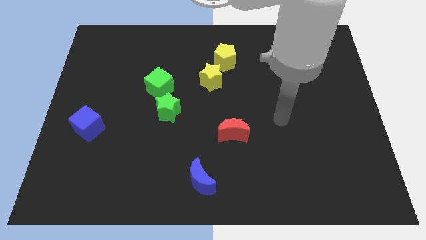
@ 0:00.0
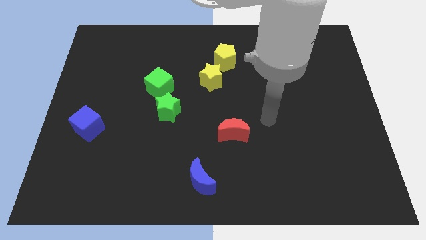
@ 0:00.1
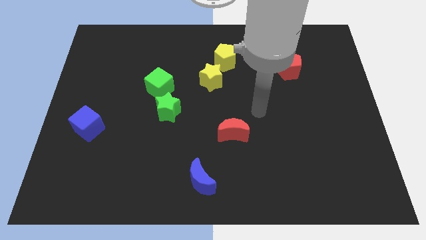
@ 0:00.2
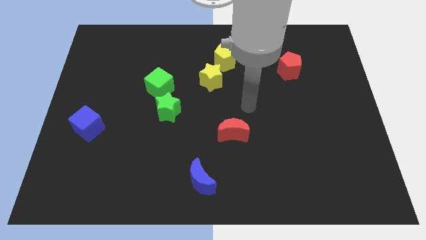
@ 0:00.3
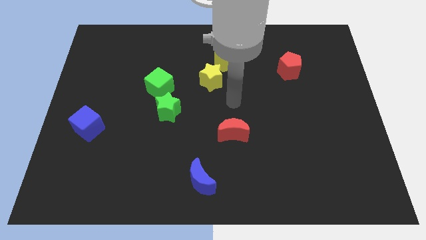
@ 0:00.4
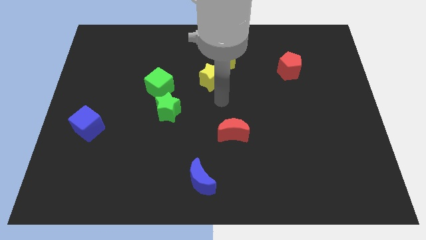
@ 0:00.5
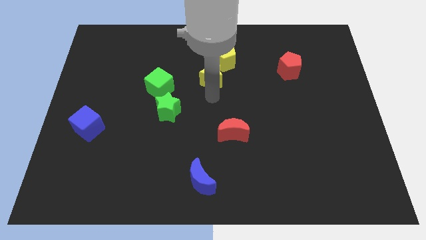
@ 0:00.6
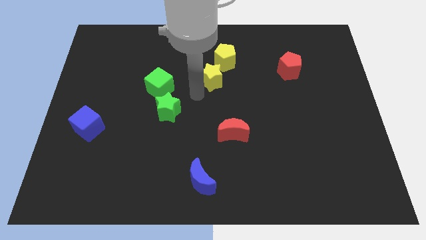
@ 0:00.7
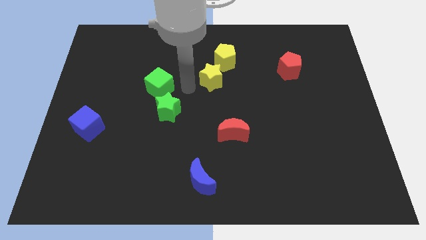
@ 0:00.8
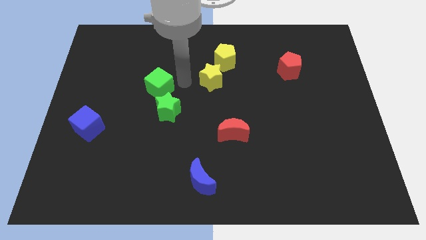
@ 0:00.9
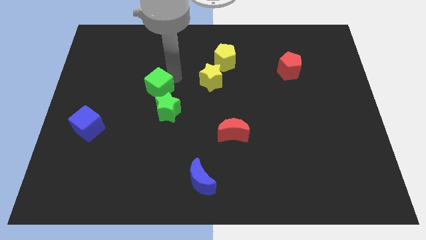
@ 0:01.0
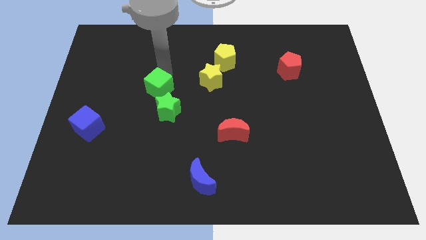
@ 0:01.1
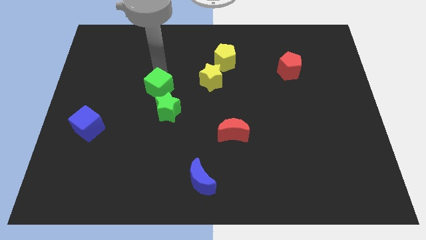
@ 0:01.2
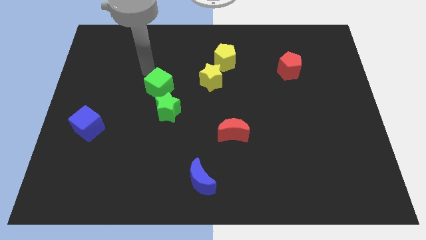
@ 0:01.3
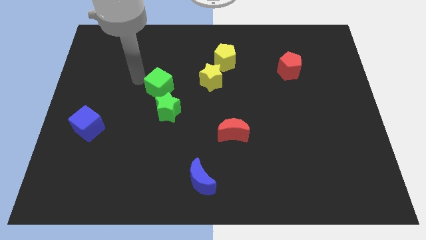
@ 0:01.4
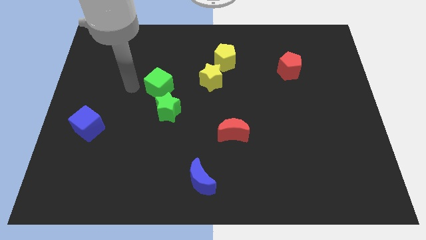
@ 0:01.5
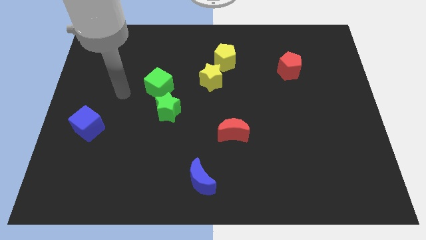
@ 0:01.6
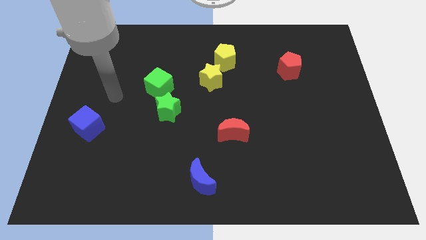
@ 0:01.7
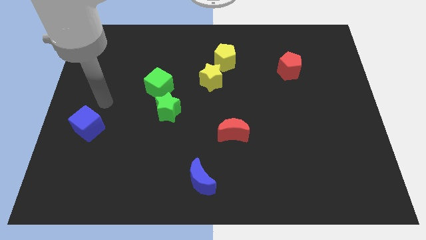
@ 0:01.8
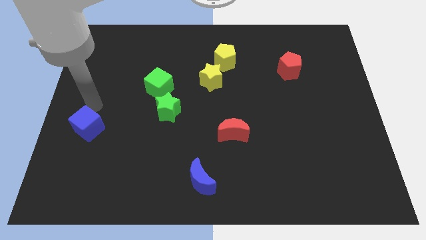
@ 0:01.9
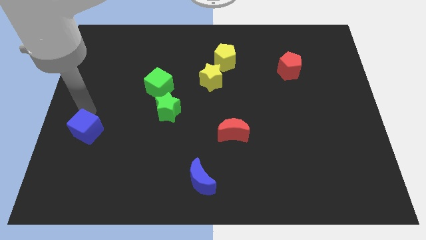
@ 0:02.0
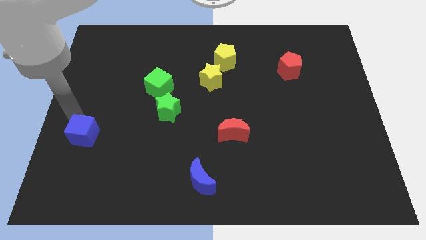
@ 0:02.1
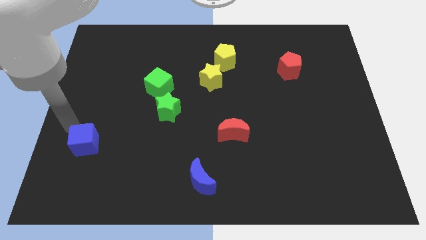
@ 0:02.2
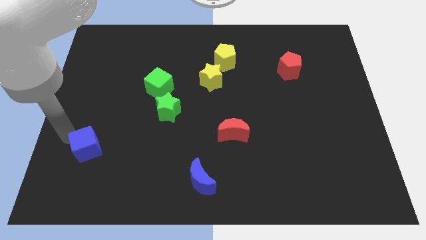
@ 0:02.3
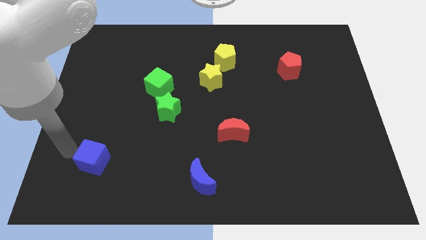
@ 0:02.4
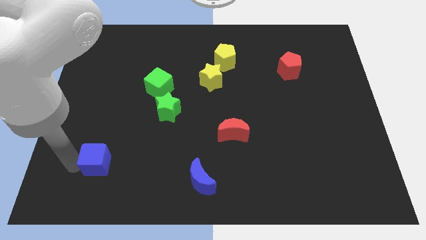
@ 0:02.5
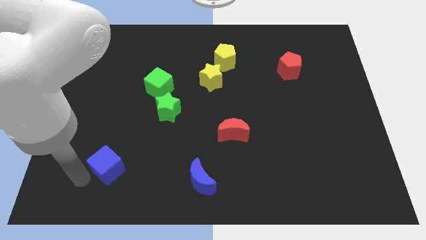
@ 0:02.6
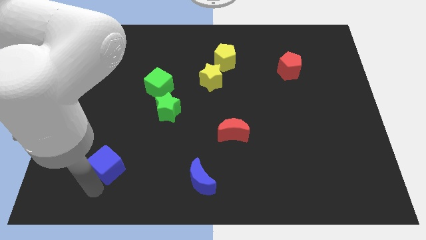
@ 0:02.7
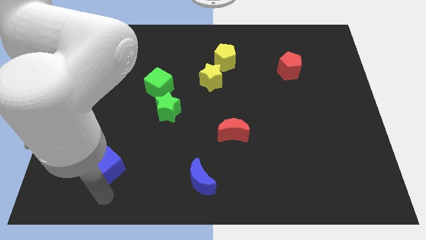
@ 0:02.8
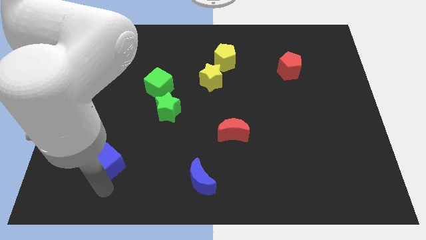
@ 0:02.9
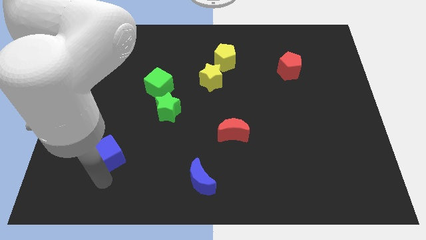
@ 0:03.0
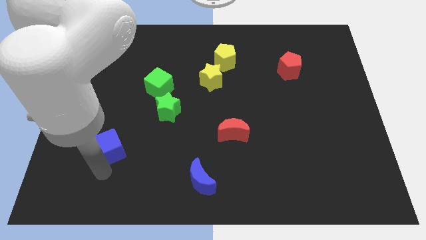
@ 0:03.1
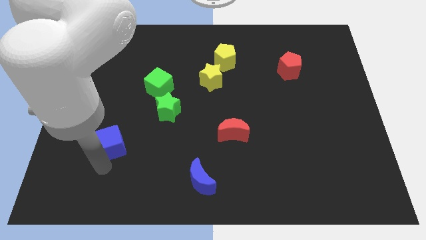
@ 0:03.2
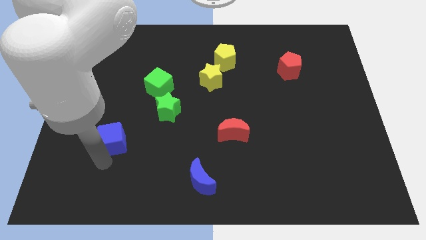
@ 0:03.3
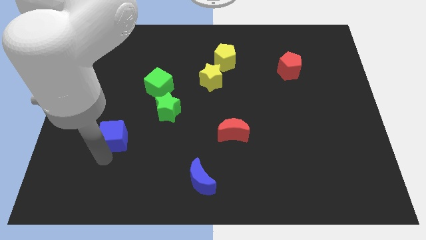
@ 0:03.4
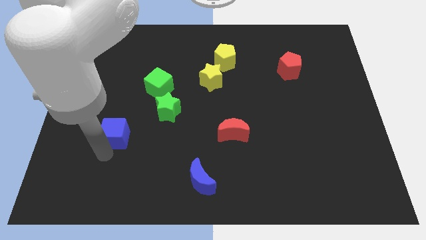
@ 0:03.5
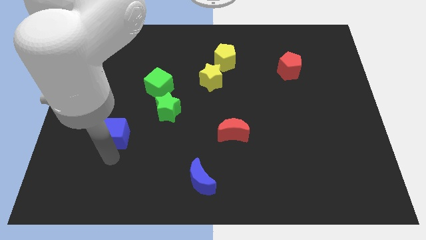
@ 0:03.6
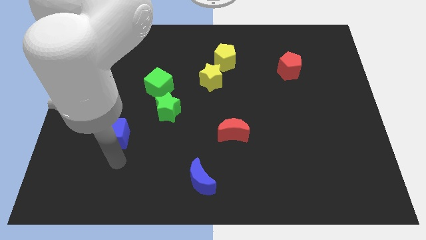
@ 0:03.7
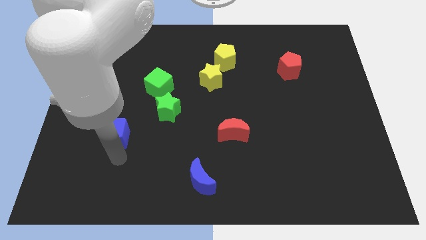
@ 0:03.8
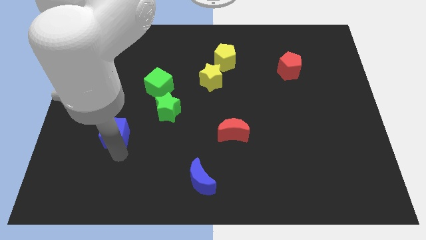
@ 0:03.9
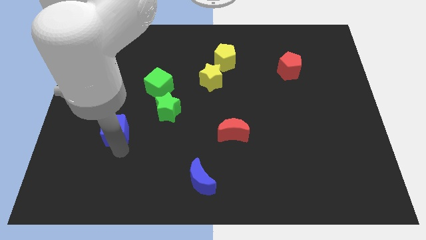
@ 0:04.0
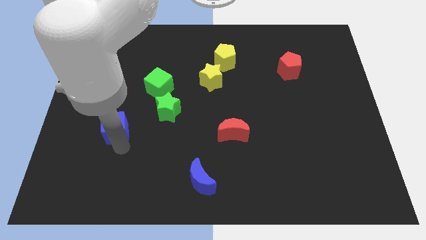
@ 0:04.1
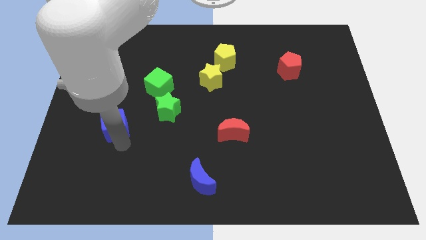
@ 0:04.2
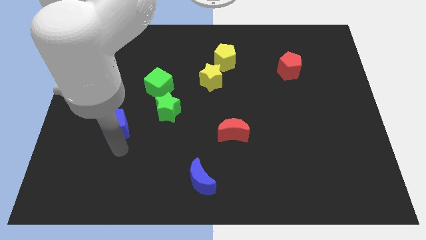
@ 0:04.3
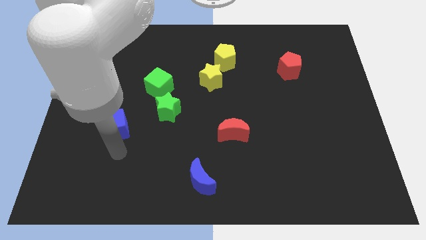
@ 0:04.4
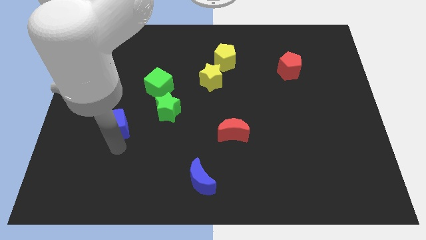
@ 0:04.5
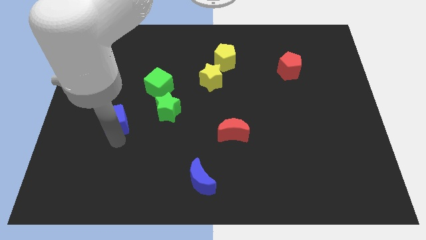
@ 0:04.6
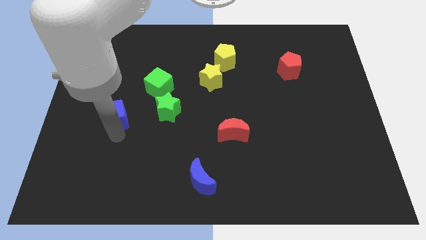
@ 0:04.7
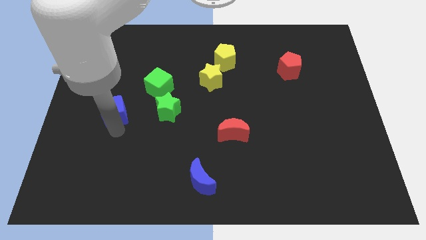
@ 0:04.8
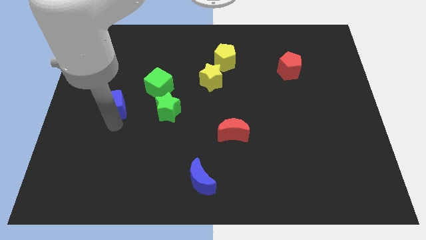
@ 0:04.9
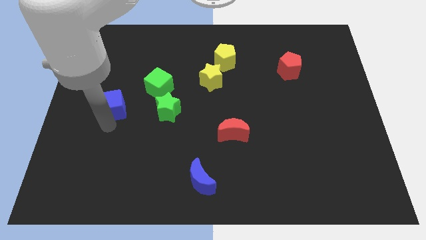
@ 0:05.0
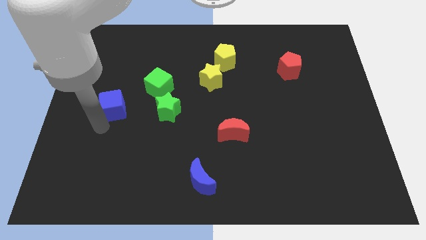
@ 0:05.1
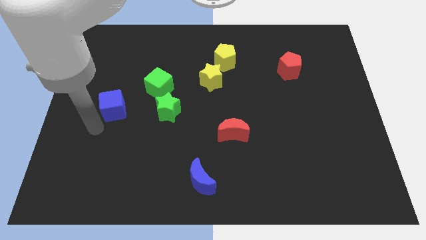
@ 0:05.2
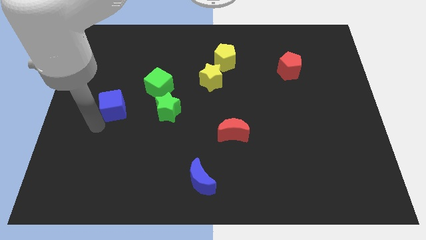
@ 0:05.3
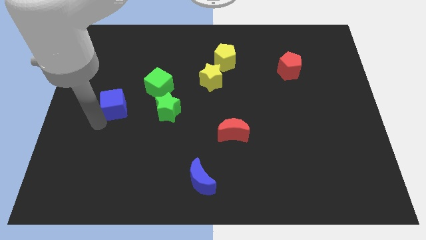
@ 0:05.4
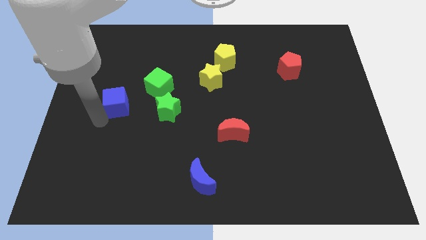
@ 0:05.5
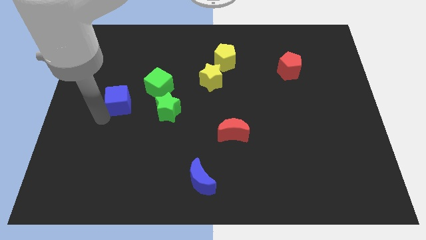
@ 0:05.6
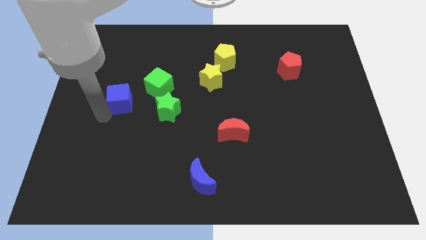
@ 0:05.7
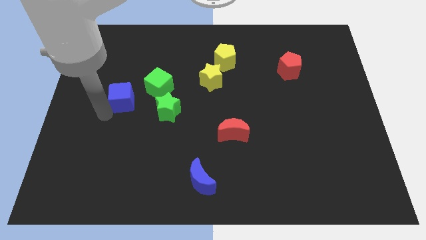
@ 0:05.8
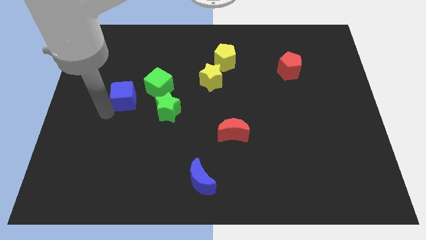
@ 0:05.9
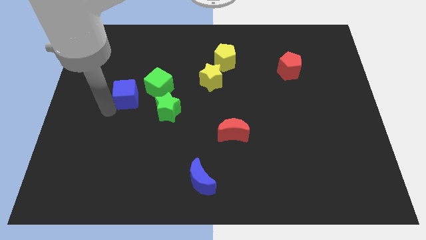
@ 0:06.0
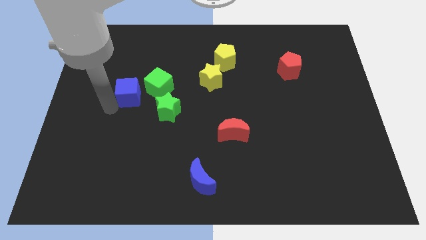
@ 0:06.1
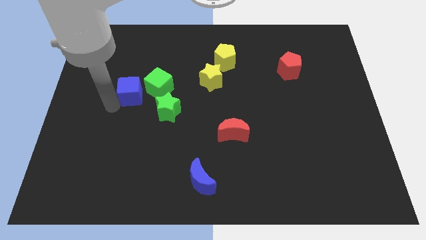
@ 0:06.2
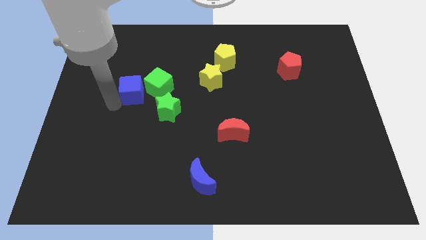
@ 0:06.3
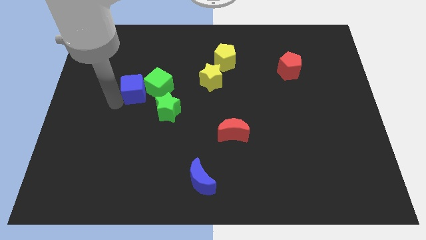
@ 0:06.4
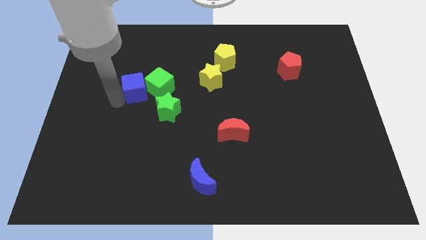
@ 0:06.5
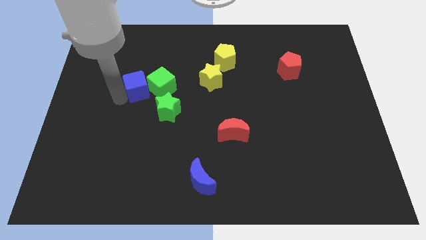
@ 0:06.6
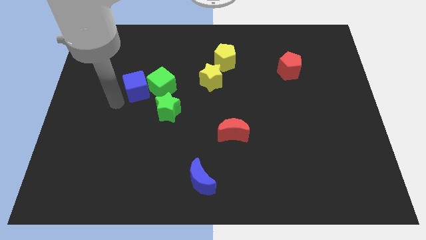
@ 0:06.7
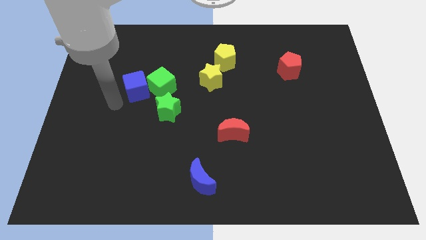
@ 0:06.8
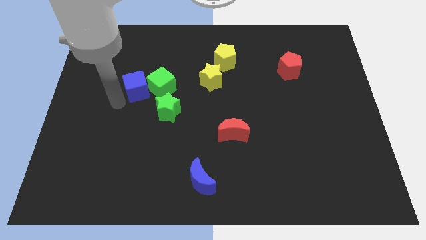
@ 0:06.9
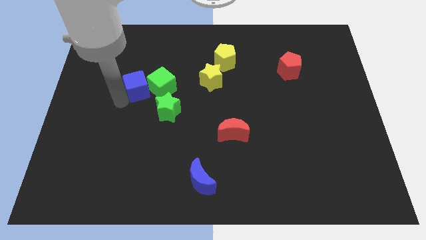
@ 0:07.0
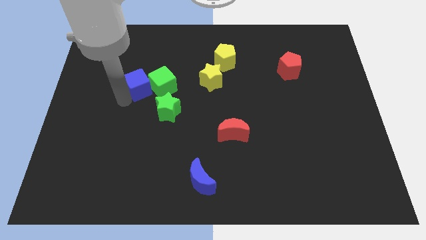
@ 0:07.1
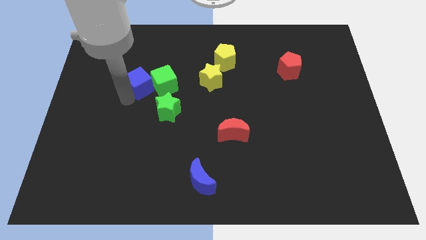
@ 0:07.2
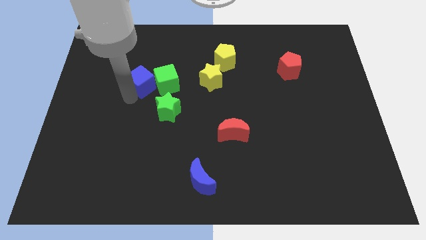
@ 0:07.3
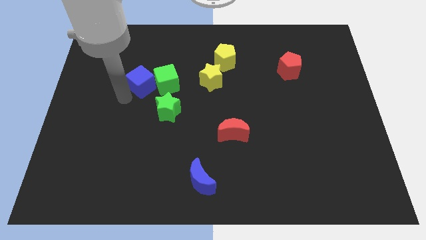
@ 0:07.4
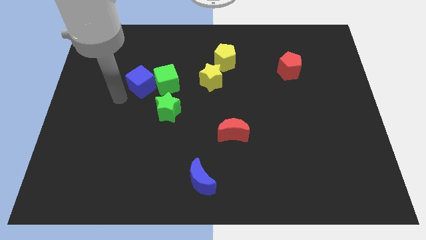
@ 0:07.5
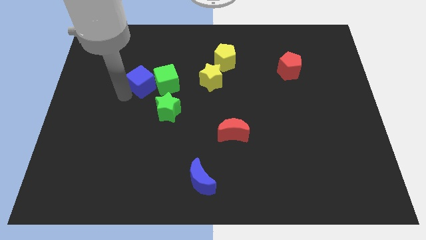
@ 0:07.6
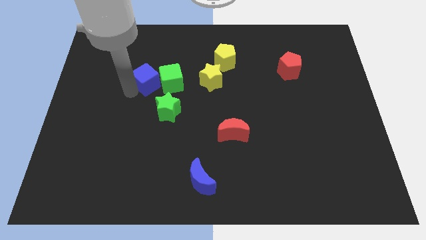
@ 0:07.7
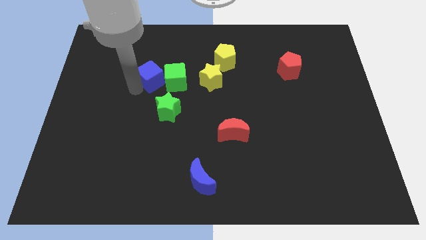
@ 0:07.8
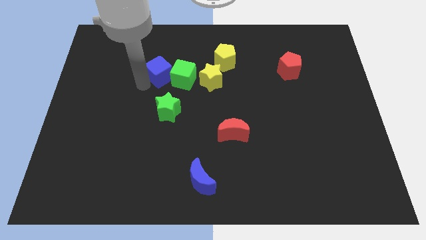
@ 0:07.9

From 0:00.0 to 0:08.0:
move the blue cube up and then right
